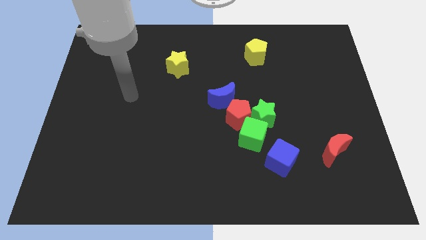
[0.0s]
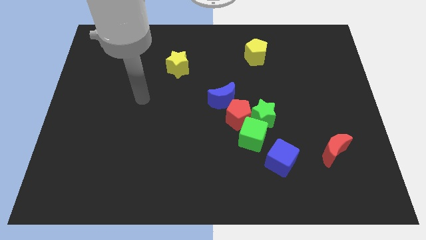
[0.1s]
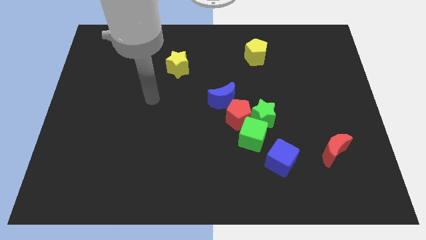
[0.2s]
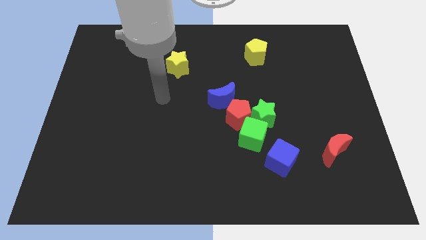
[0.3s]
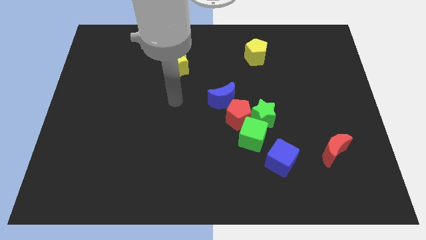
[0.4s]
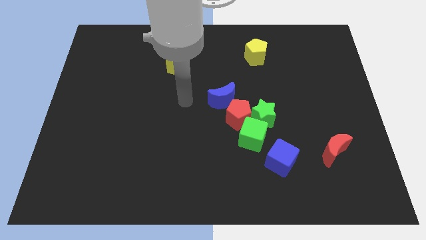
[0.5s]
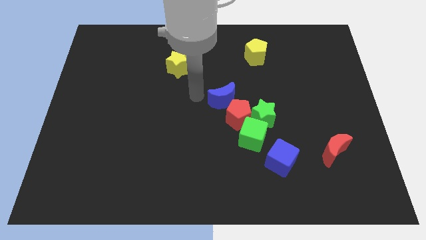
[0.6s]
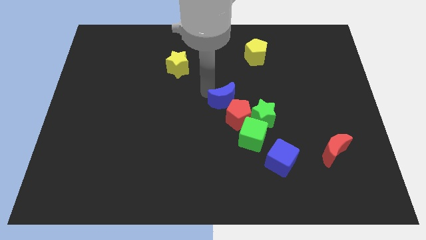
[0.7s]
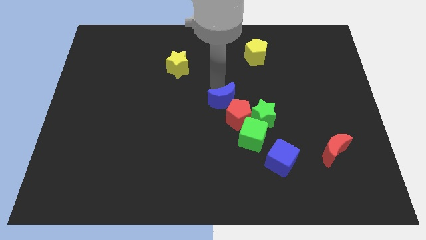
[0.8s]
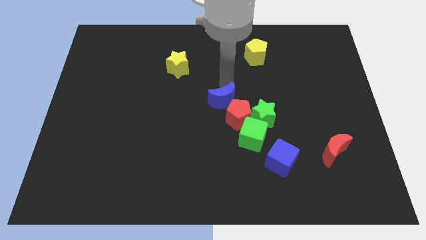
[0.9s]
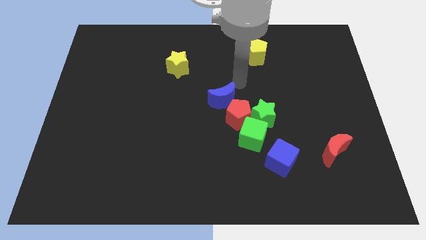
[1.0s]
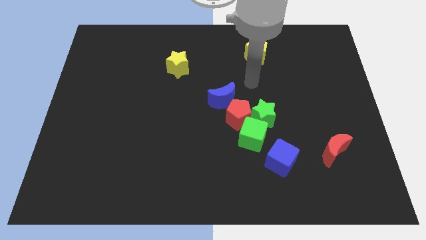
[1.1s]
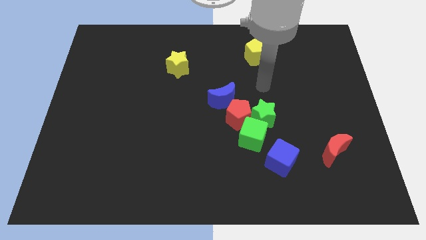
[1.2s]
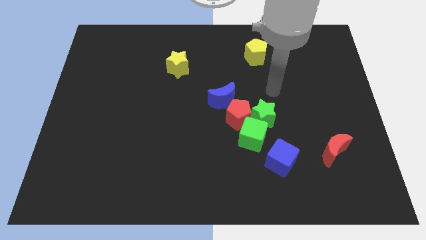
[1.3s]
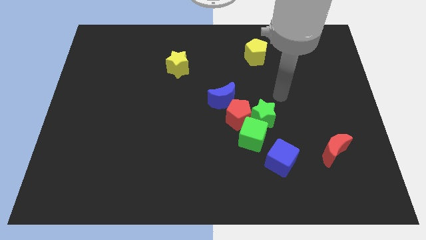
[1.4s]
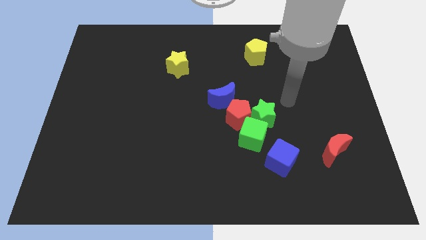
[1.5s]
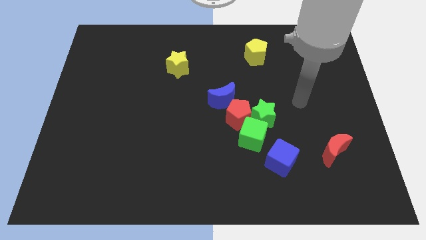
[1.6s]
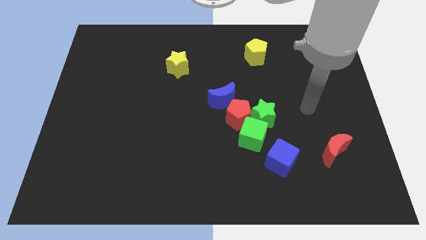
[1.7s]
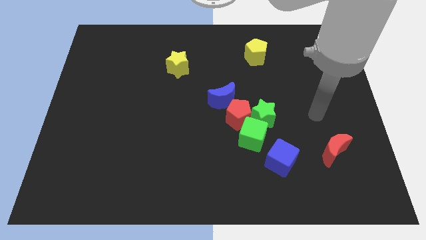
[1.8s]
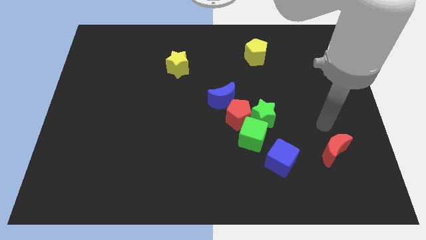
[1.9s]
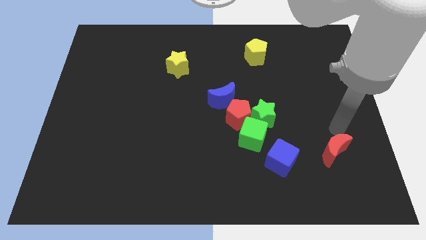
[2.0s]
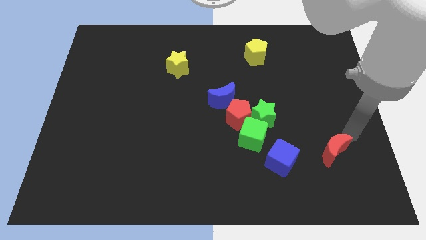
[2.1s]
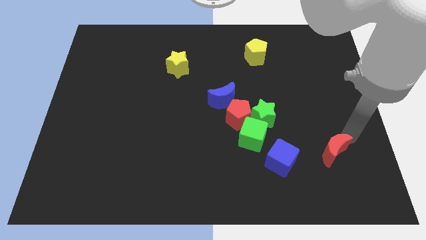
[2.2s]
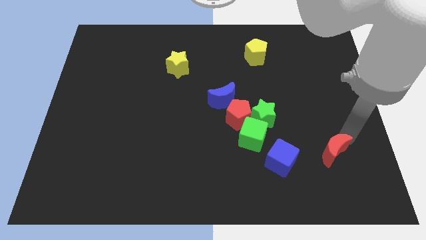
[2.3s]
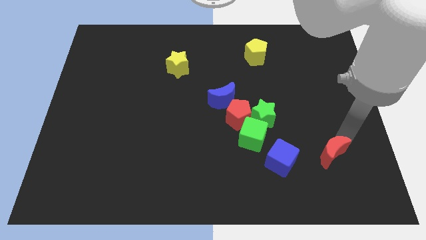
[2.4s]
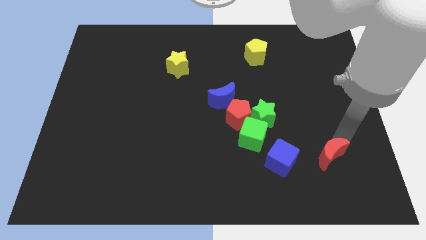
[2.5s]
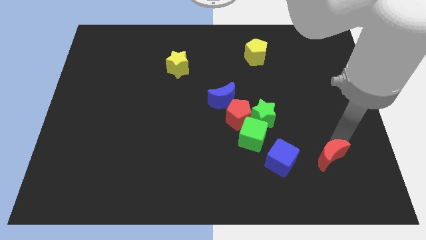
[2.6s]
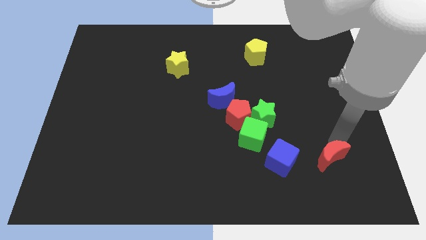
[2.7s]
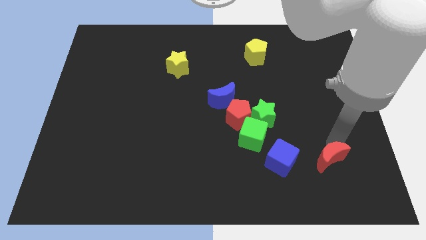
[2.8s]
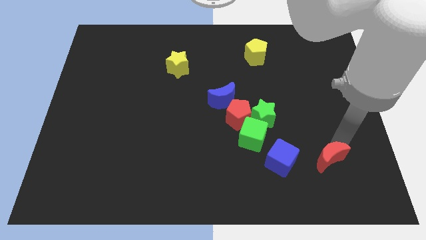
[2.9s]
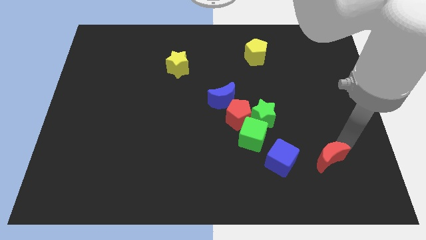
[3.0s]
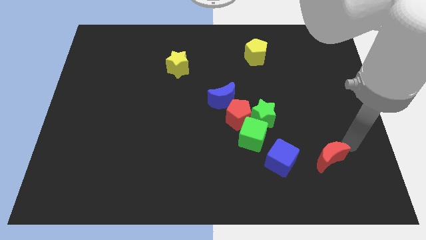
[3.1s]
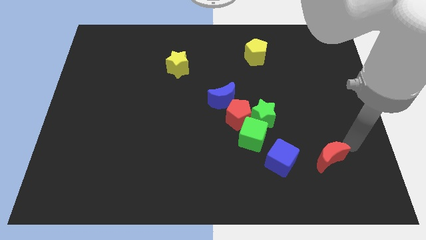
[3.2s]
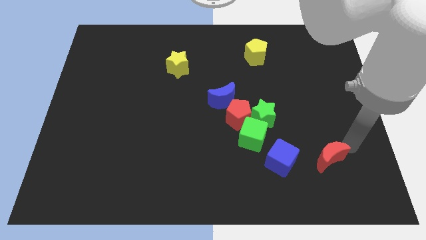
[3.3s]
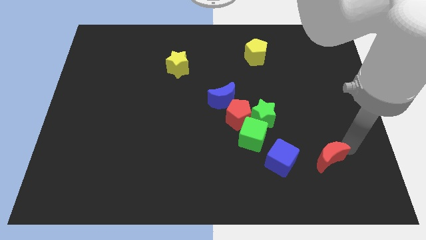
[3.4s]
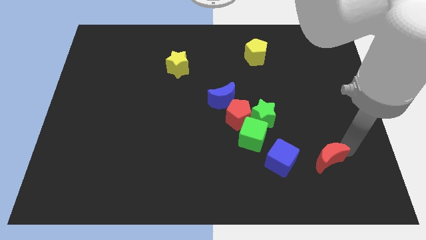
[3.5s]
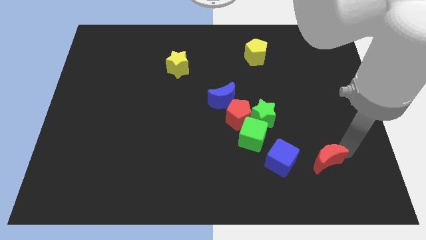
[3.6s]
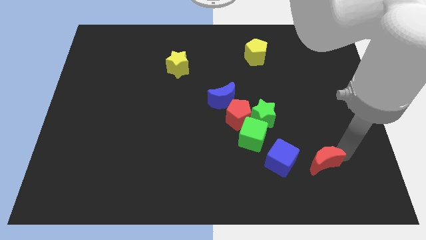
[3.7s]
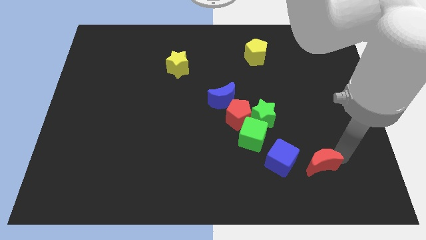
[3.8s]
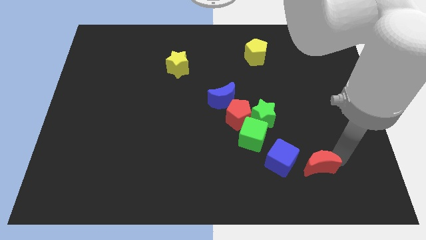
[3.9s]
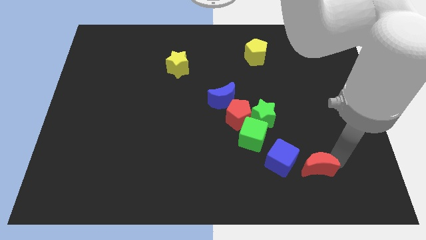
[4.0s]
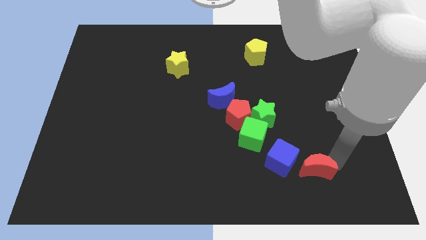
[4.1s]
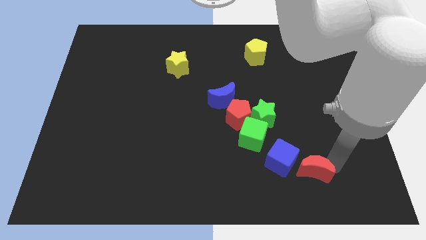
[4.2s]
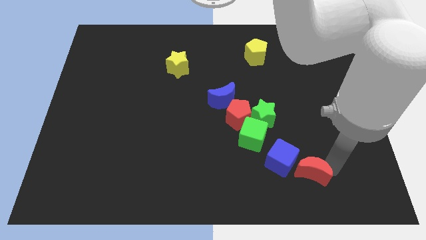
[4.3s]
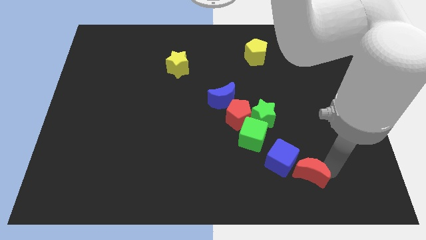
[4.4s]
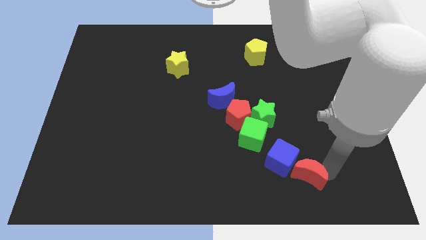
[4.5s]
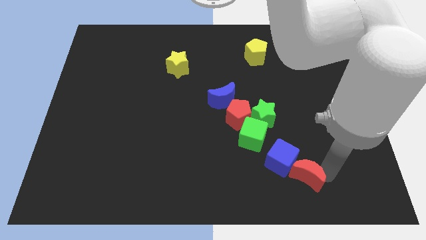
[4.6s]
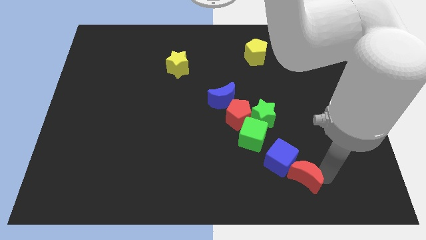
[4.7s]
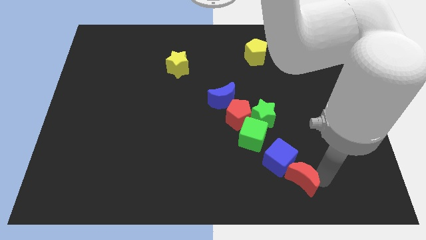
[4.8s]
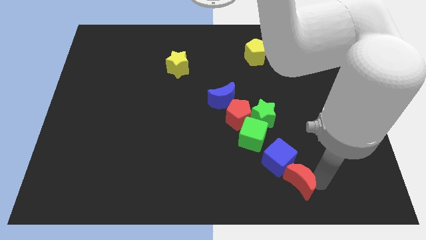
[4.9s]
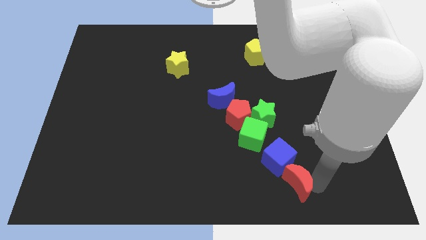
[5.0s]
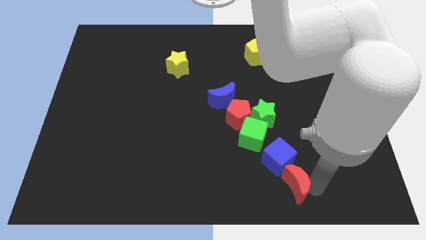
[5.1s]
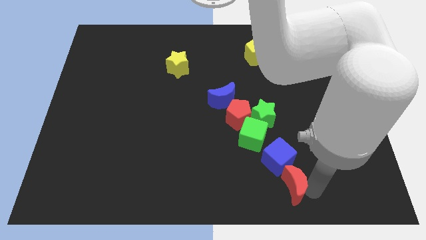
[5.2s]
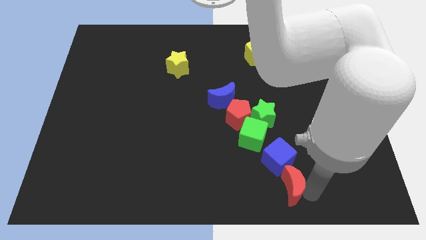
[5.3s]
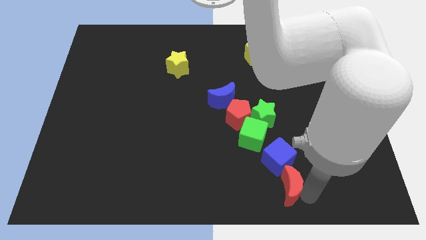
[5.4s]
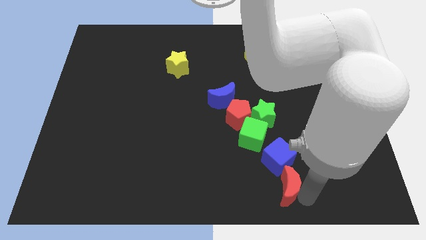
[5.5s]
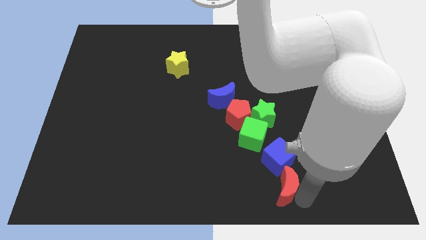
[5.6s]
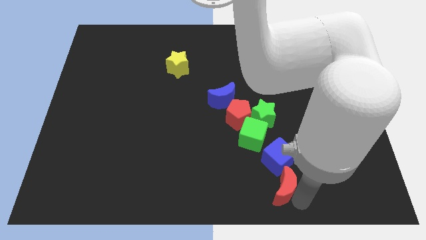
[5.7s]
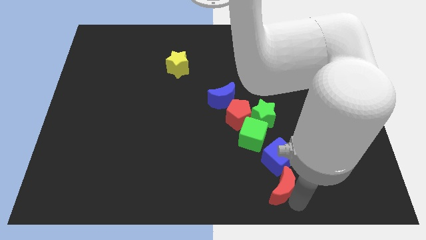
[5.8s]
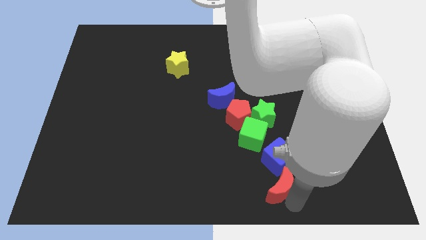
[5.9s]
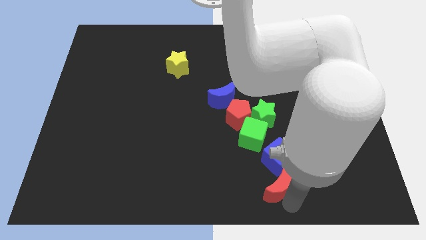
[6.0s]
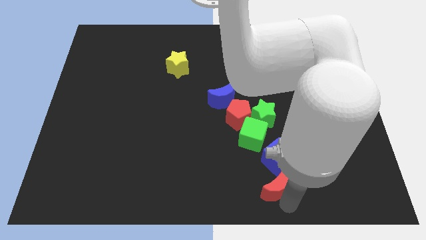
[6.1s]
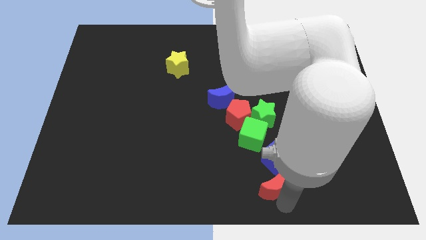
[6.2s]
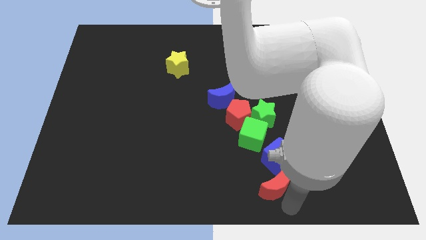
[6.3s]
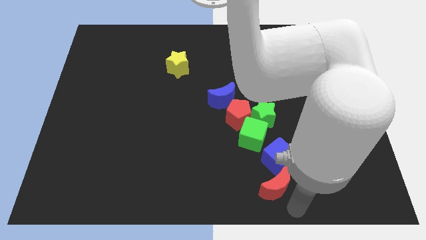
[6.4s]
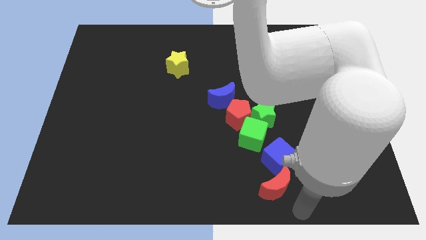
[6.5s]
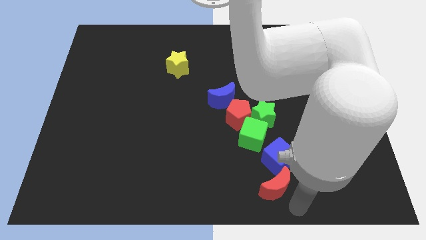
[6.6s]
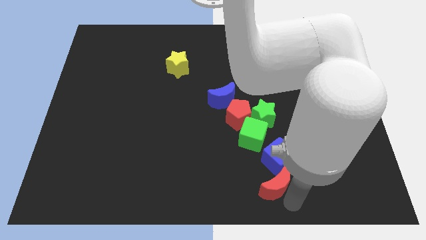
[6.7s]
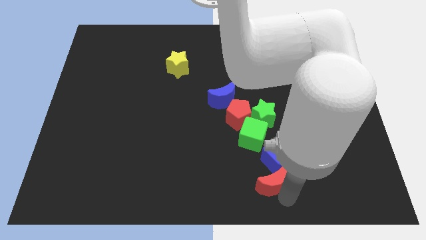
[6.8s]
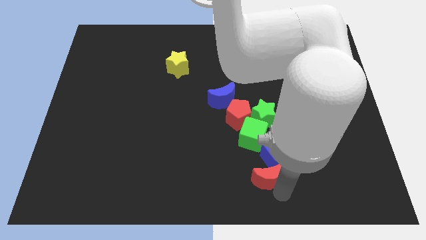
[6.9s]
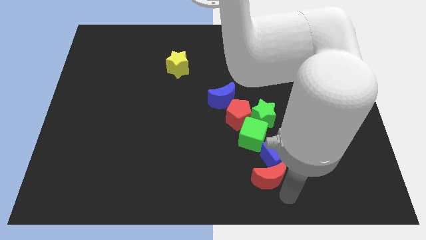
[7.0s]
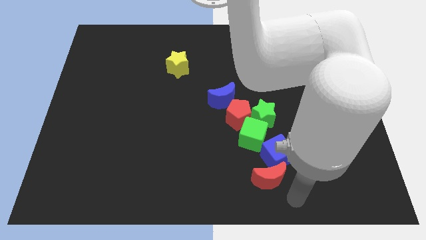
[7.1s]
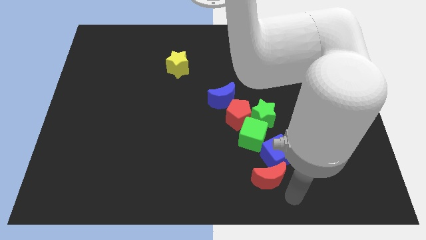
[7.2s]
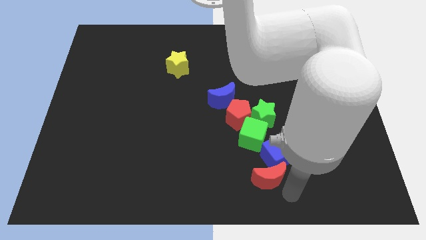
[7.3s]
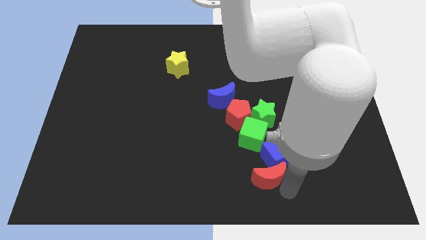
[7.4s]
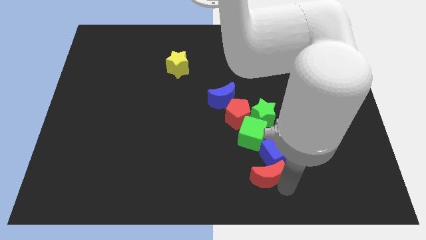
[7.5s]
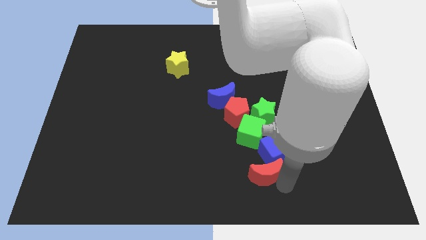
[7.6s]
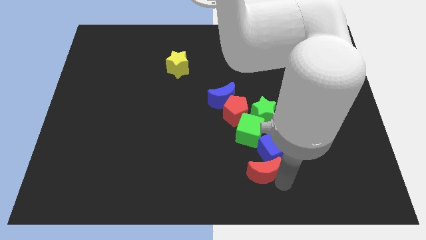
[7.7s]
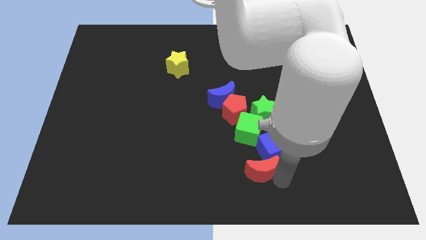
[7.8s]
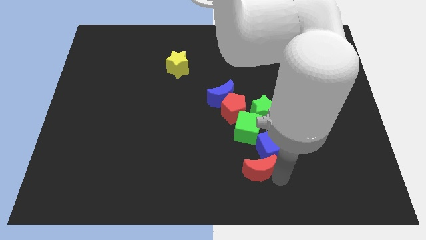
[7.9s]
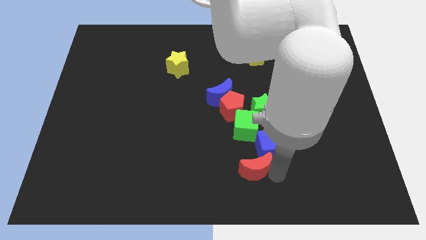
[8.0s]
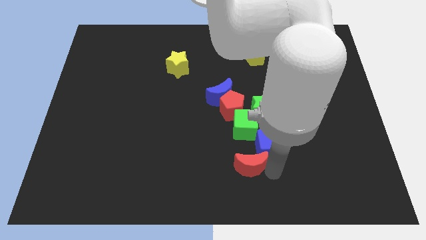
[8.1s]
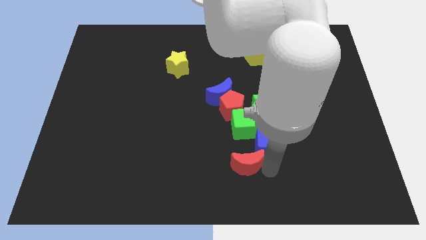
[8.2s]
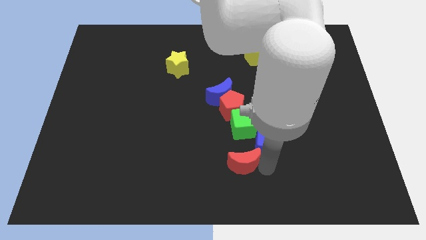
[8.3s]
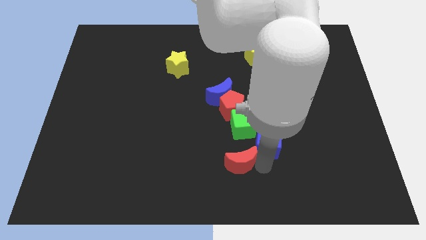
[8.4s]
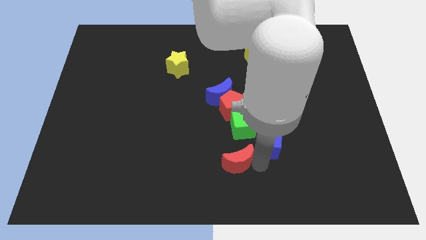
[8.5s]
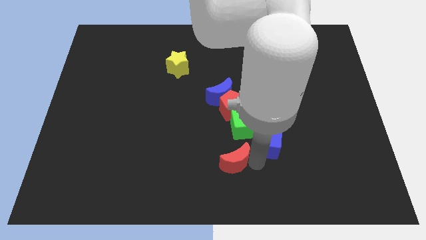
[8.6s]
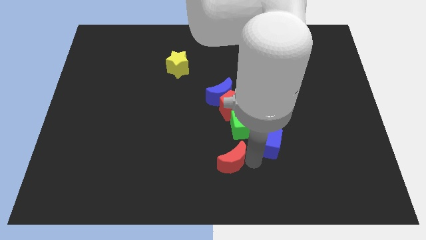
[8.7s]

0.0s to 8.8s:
slide the red moon diagonally down and to the left of the green cube
